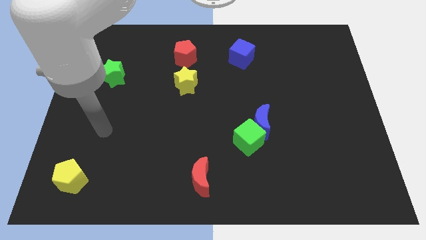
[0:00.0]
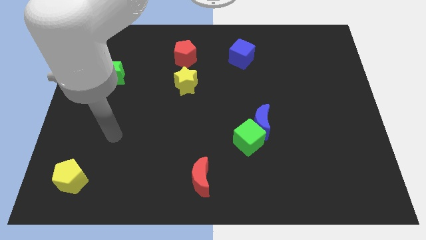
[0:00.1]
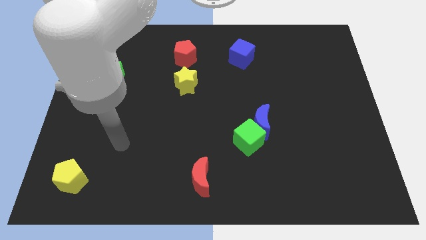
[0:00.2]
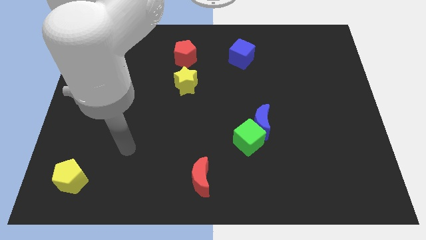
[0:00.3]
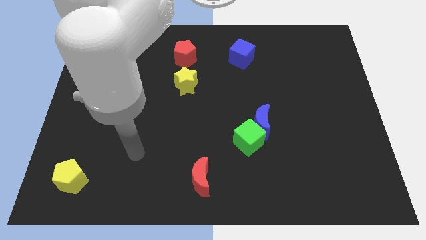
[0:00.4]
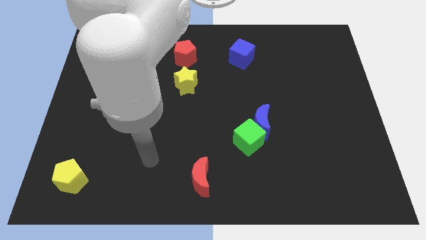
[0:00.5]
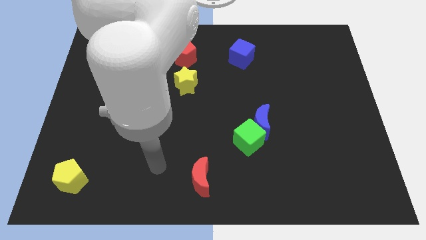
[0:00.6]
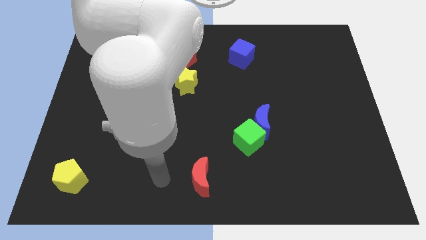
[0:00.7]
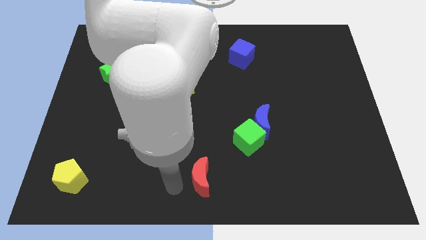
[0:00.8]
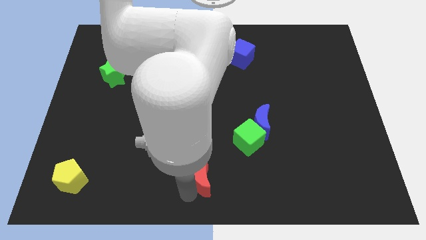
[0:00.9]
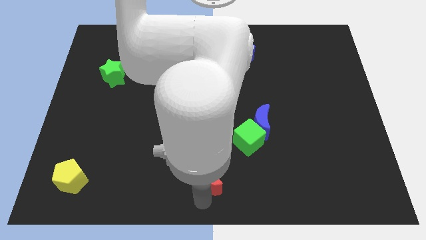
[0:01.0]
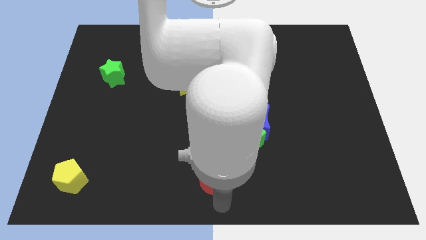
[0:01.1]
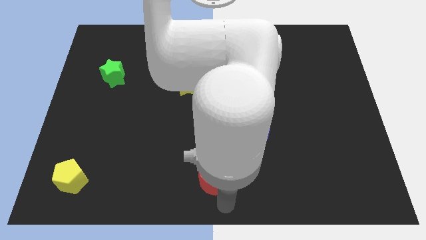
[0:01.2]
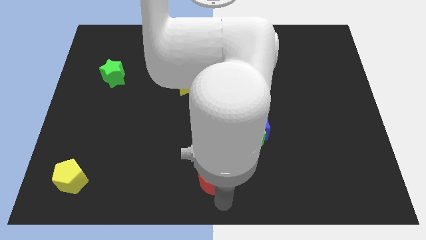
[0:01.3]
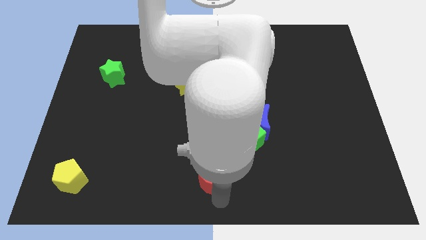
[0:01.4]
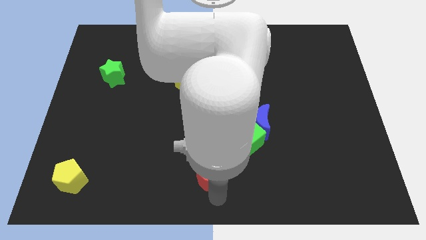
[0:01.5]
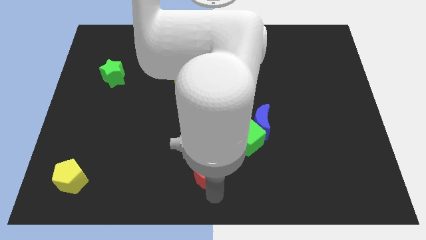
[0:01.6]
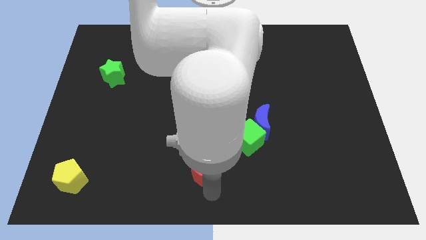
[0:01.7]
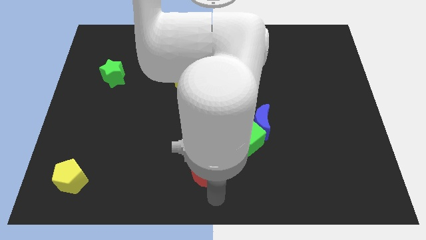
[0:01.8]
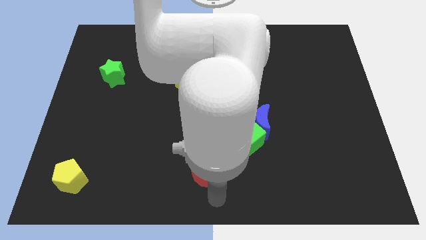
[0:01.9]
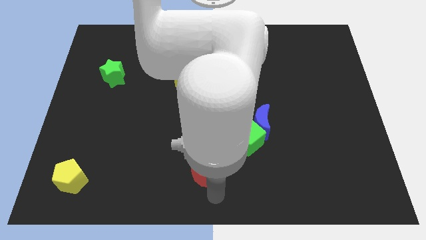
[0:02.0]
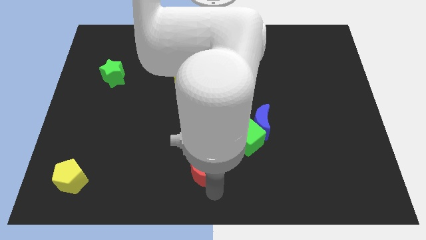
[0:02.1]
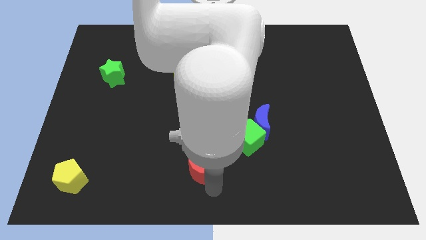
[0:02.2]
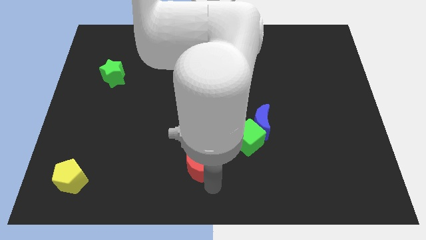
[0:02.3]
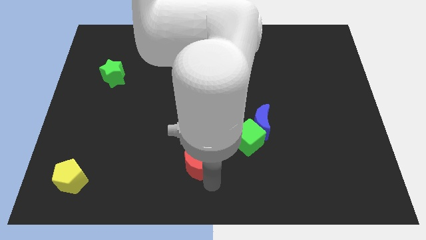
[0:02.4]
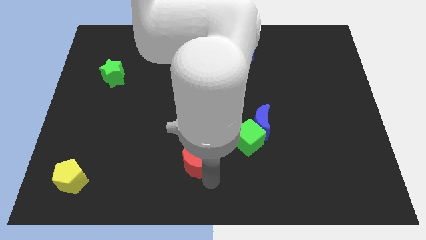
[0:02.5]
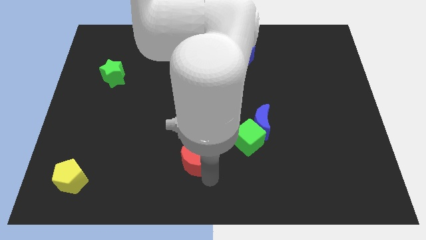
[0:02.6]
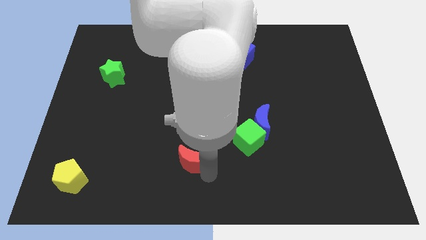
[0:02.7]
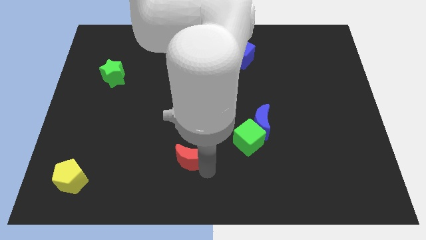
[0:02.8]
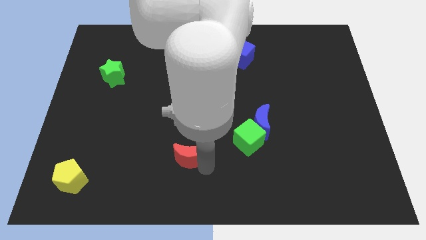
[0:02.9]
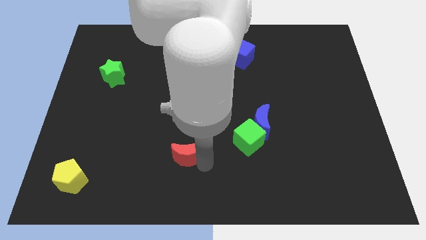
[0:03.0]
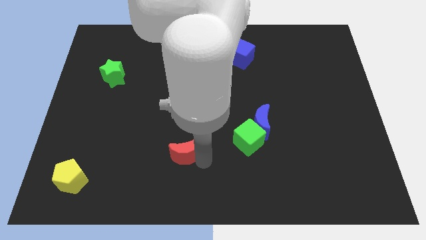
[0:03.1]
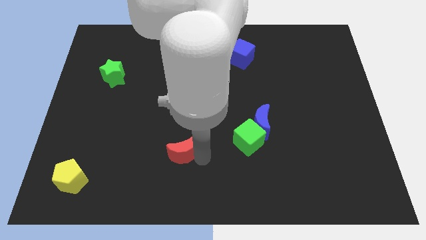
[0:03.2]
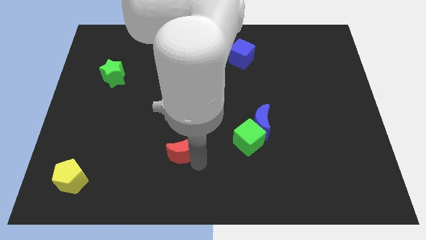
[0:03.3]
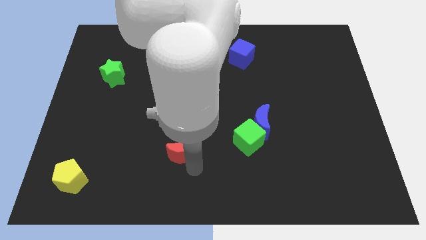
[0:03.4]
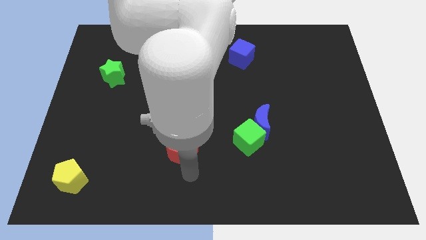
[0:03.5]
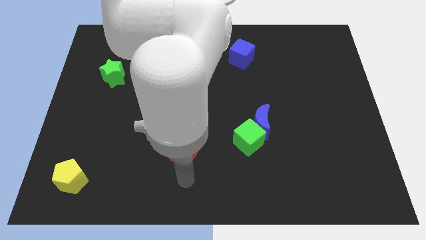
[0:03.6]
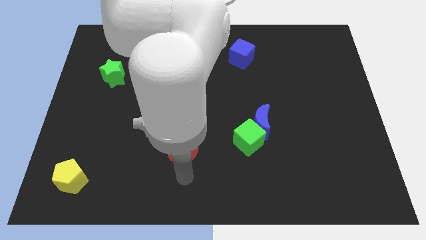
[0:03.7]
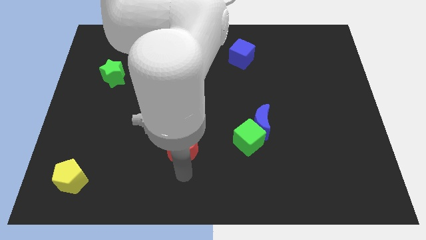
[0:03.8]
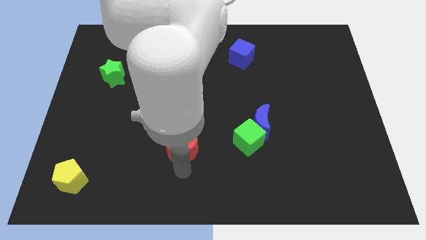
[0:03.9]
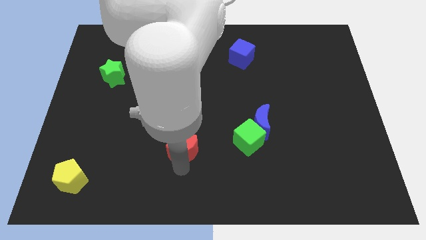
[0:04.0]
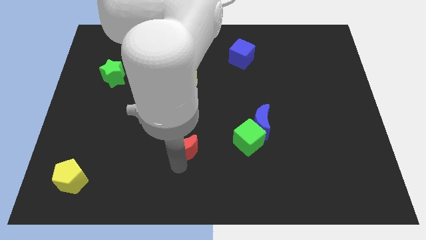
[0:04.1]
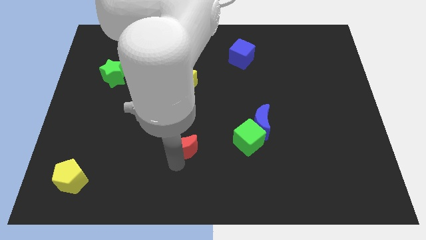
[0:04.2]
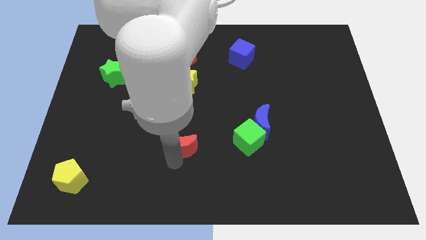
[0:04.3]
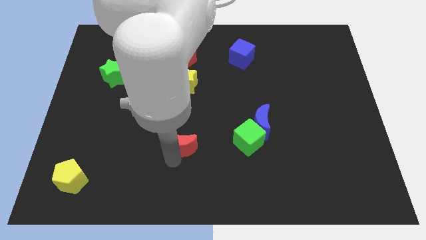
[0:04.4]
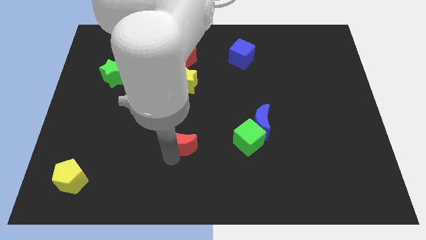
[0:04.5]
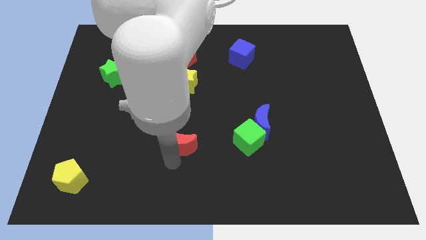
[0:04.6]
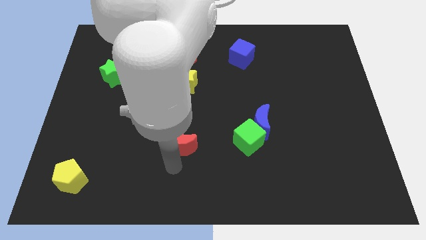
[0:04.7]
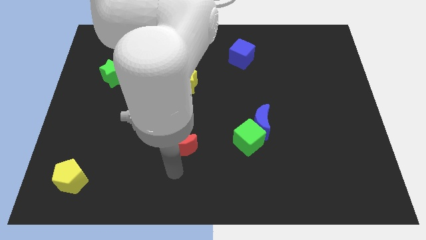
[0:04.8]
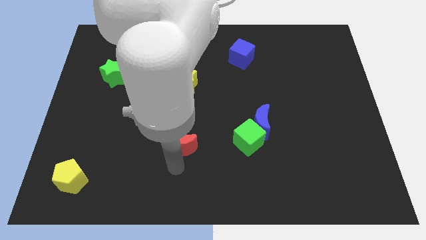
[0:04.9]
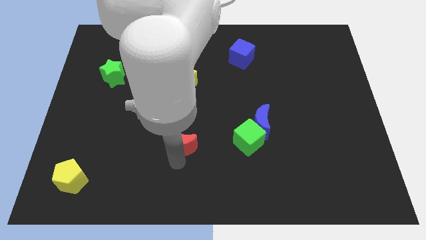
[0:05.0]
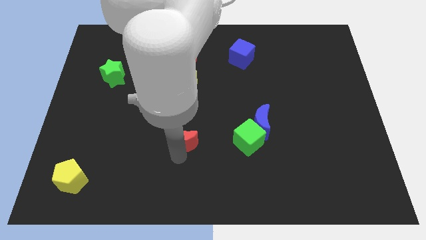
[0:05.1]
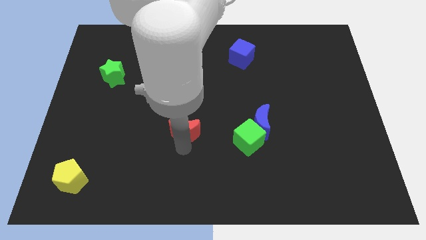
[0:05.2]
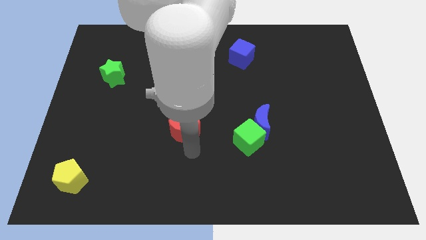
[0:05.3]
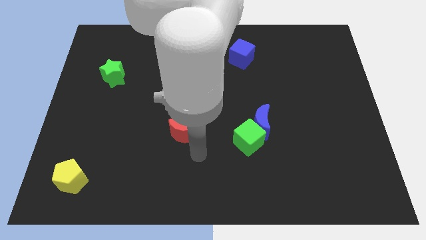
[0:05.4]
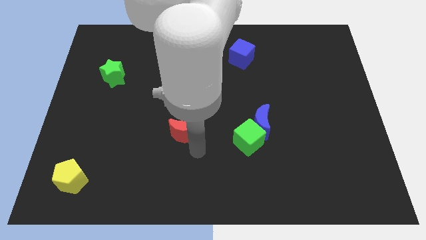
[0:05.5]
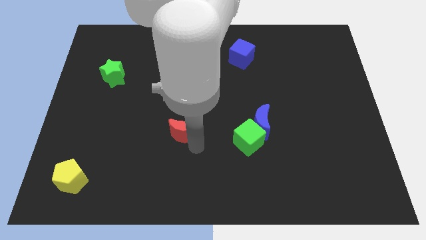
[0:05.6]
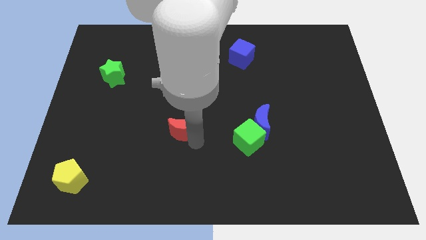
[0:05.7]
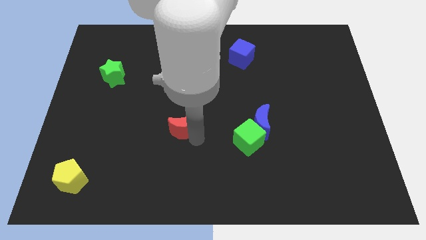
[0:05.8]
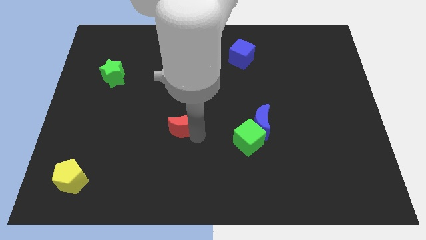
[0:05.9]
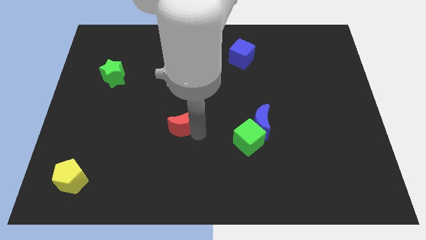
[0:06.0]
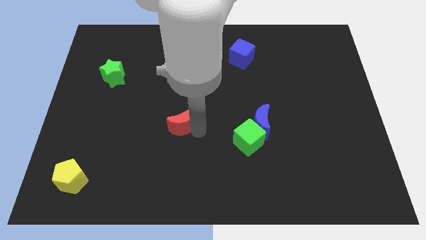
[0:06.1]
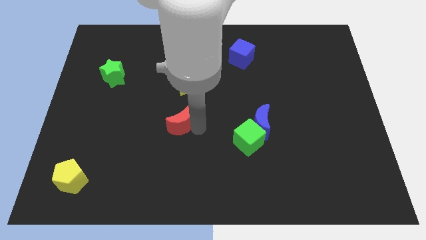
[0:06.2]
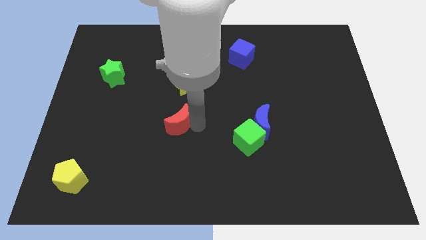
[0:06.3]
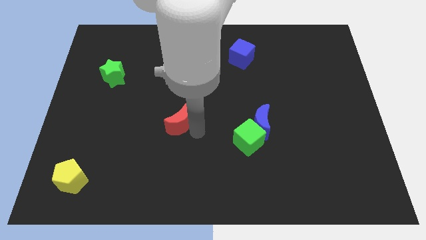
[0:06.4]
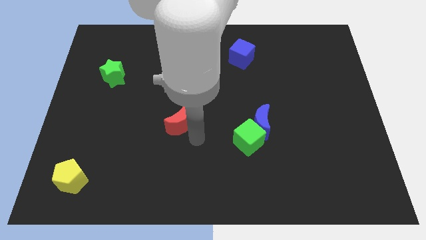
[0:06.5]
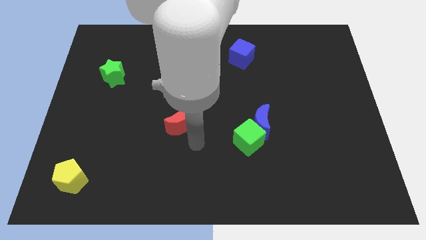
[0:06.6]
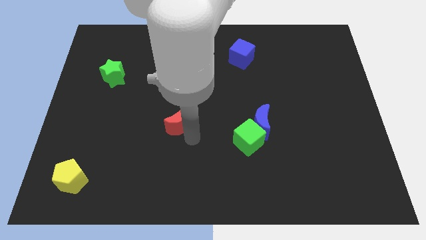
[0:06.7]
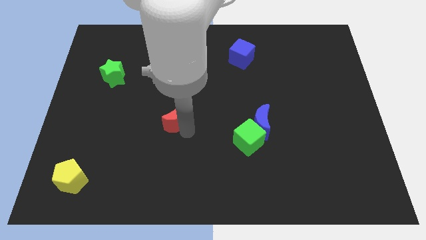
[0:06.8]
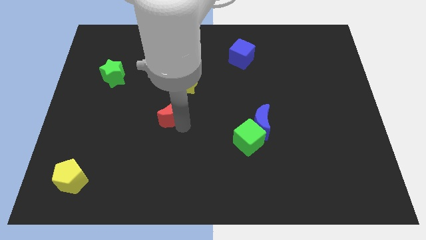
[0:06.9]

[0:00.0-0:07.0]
push the red moon diagonally down and to the left of the yellow star

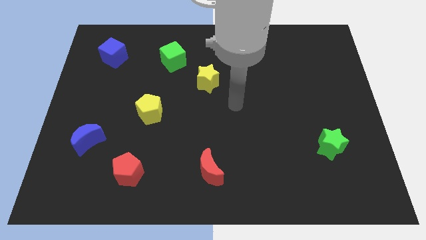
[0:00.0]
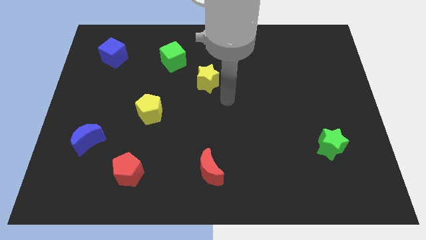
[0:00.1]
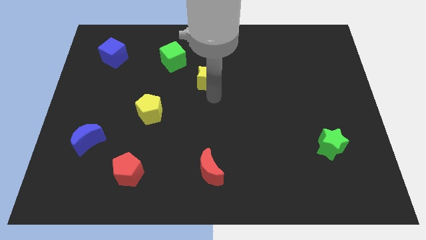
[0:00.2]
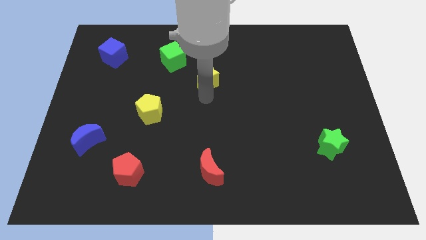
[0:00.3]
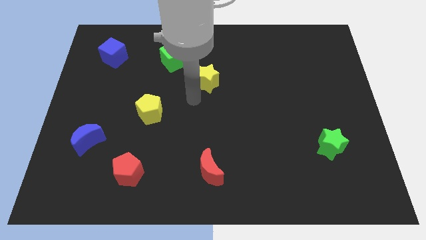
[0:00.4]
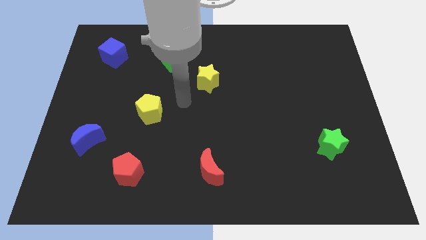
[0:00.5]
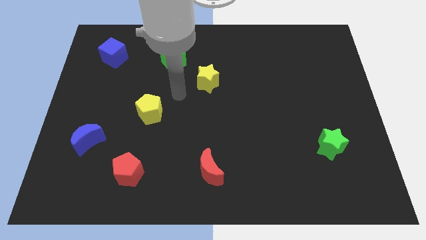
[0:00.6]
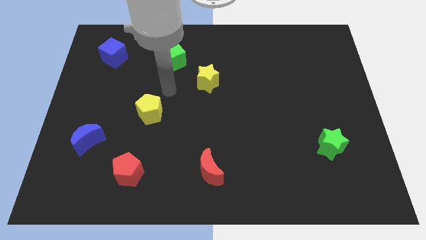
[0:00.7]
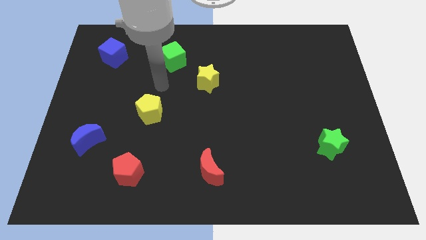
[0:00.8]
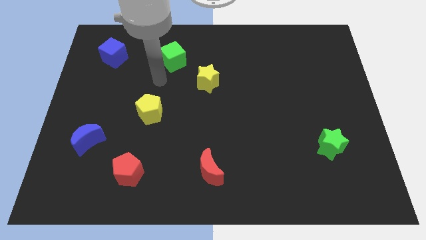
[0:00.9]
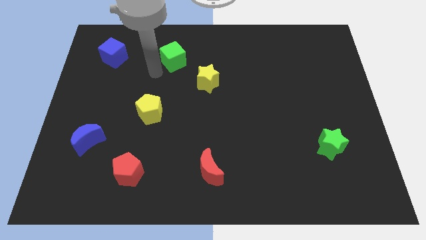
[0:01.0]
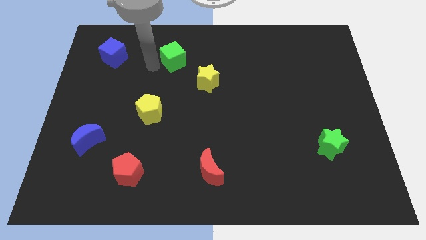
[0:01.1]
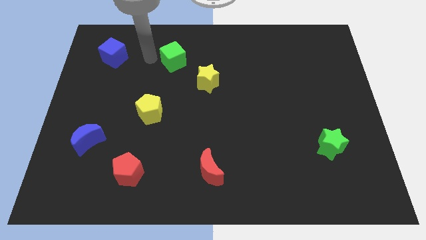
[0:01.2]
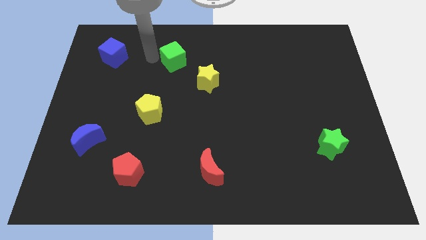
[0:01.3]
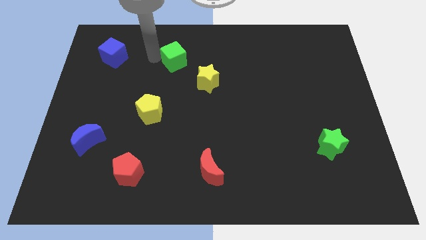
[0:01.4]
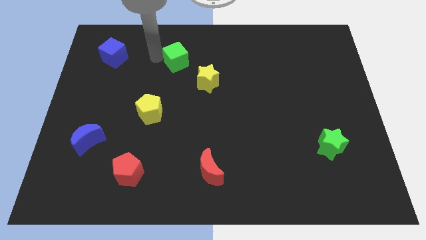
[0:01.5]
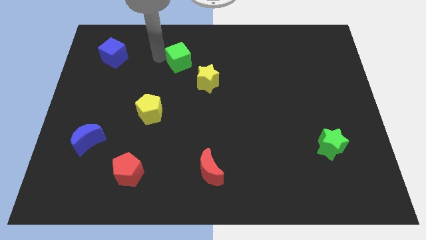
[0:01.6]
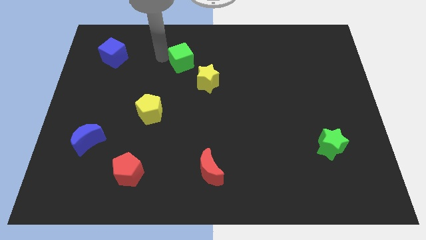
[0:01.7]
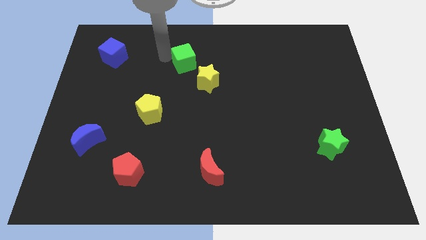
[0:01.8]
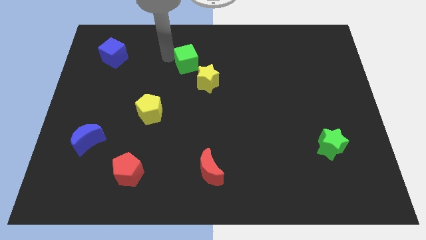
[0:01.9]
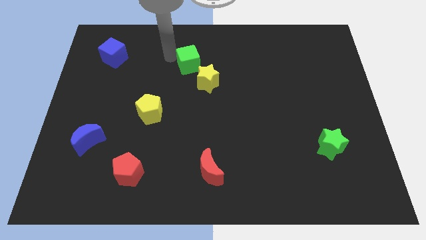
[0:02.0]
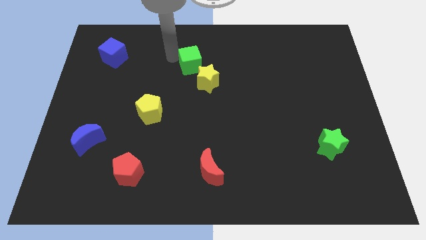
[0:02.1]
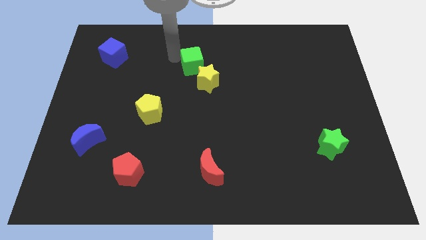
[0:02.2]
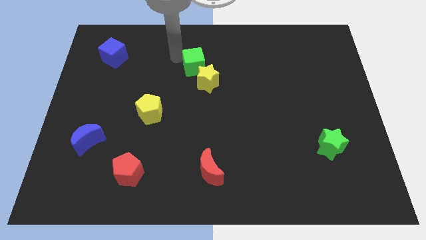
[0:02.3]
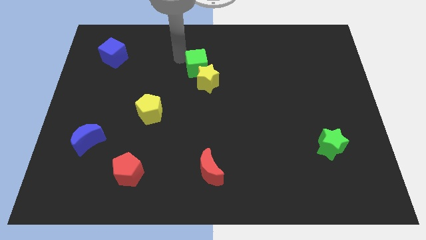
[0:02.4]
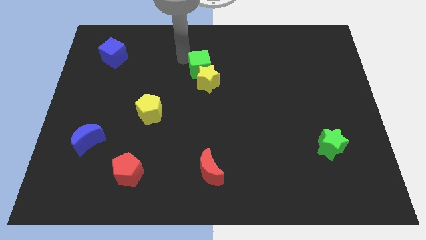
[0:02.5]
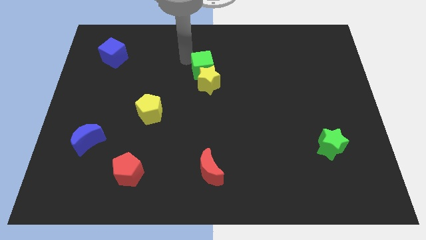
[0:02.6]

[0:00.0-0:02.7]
push the green cube to the top right of the yellow star
